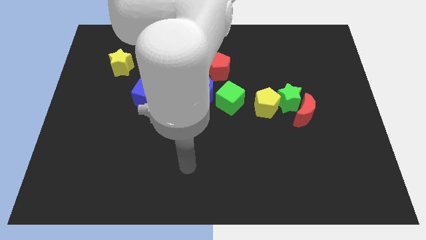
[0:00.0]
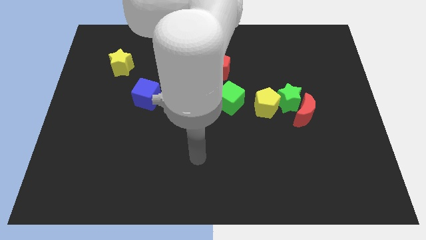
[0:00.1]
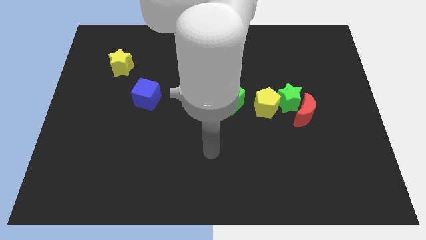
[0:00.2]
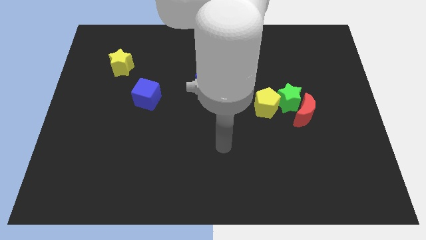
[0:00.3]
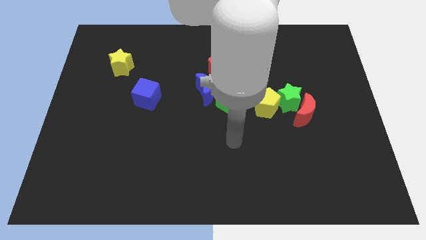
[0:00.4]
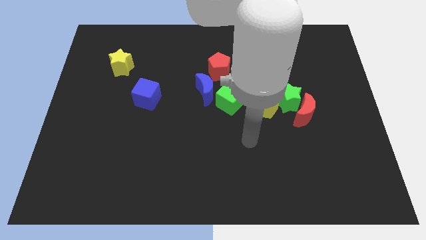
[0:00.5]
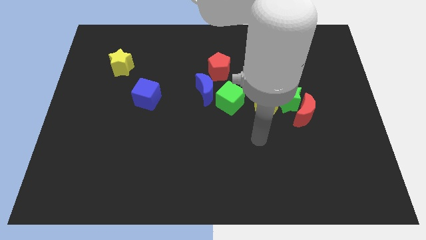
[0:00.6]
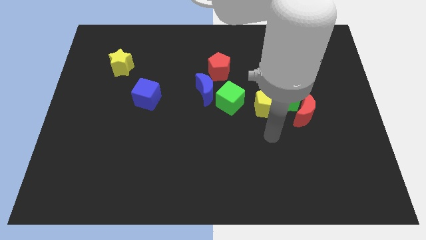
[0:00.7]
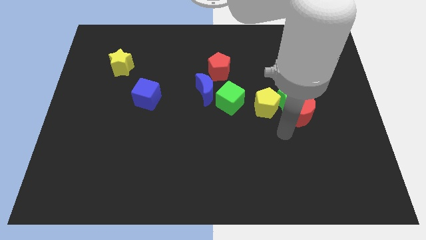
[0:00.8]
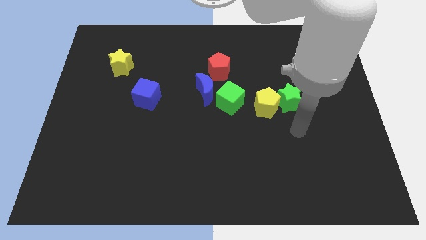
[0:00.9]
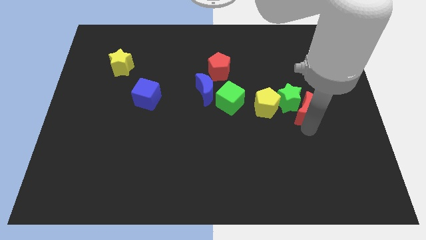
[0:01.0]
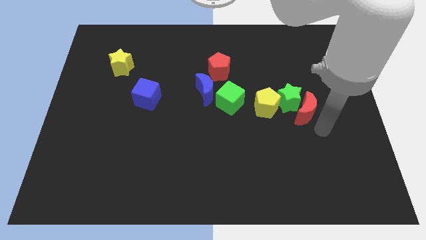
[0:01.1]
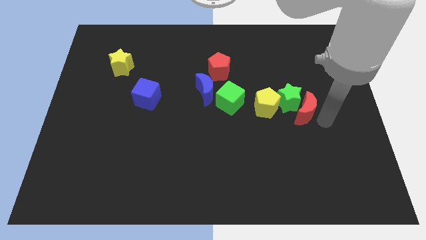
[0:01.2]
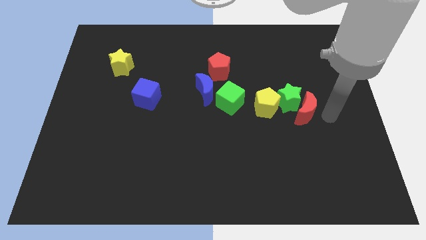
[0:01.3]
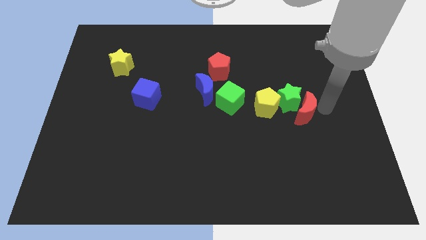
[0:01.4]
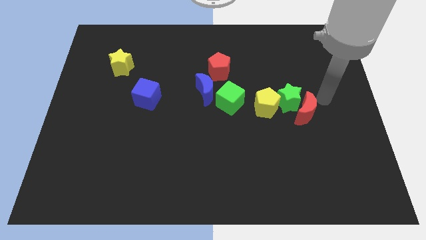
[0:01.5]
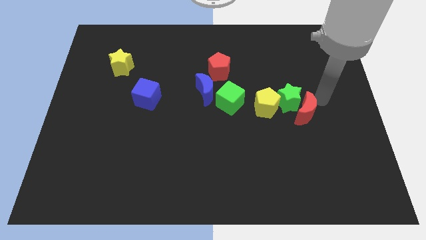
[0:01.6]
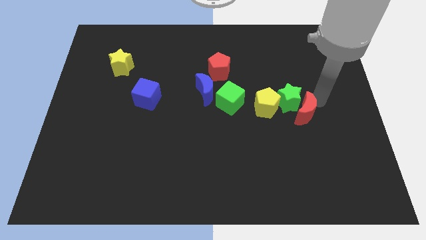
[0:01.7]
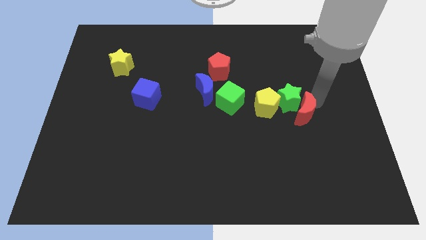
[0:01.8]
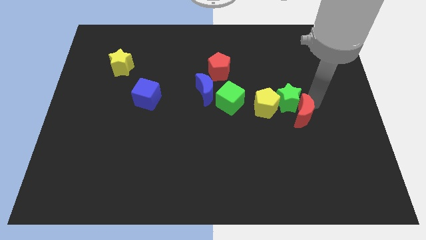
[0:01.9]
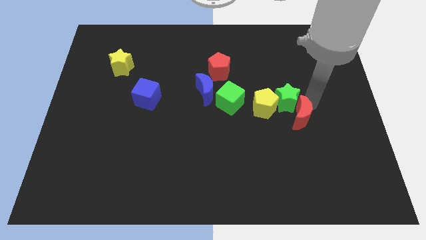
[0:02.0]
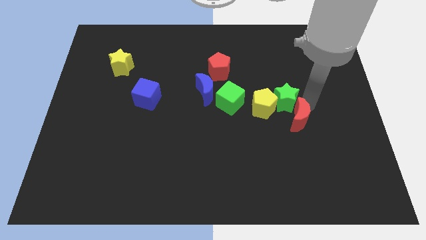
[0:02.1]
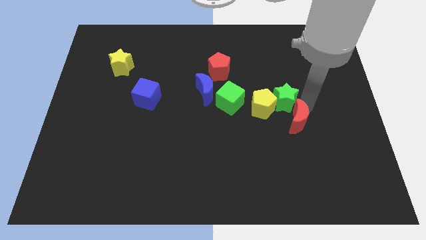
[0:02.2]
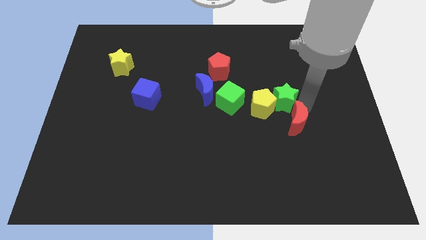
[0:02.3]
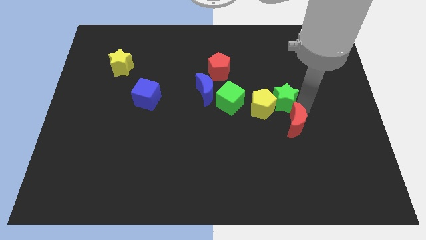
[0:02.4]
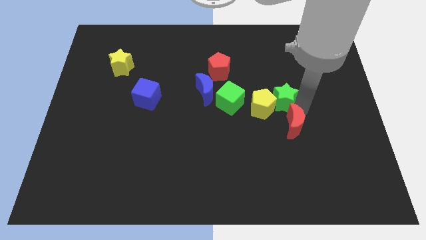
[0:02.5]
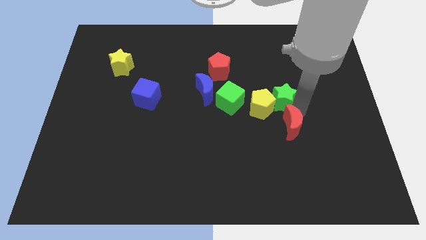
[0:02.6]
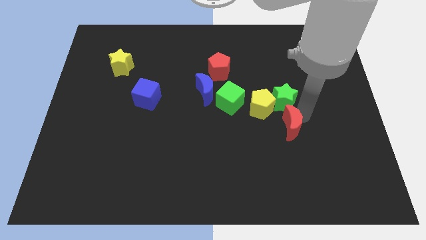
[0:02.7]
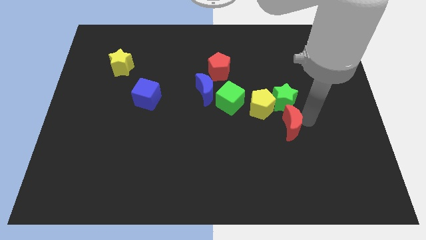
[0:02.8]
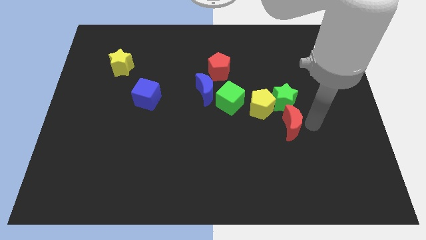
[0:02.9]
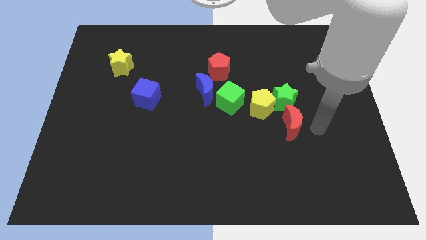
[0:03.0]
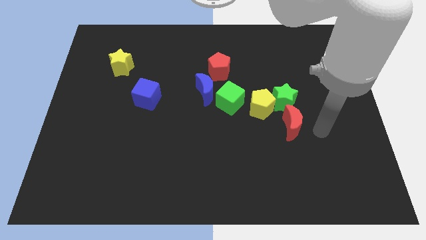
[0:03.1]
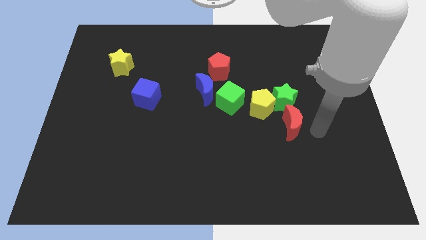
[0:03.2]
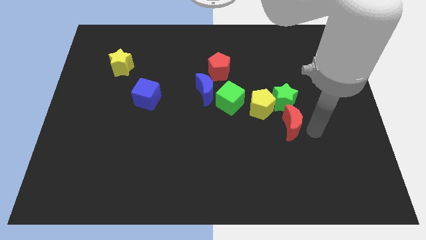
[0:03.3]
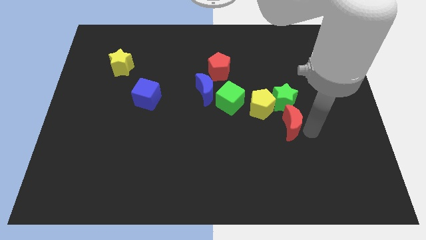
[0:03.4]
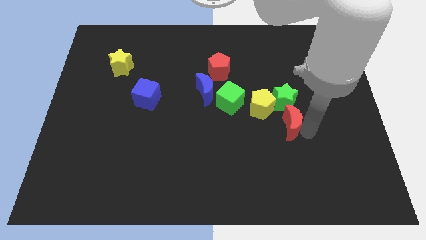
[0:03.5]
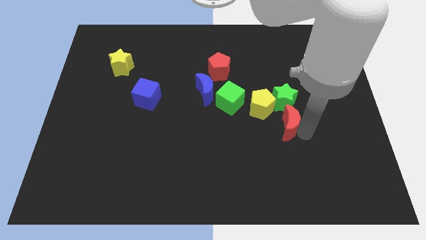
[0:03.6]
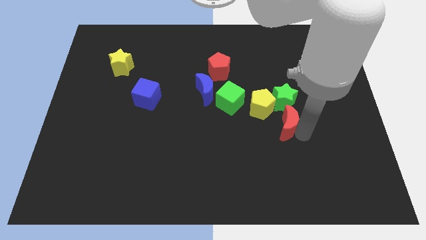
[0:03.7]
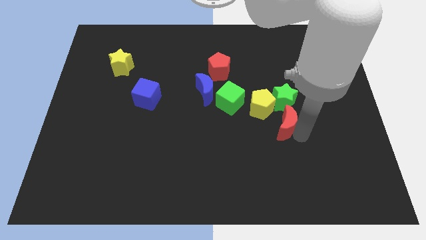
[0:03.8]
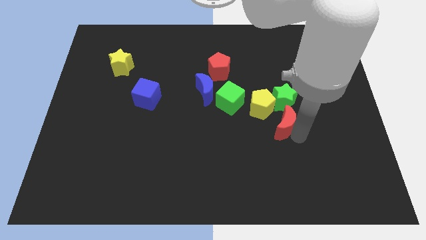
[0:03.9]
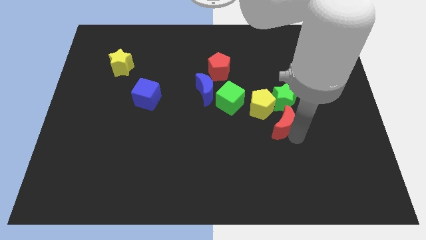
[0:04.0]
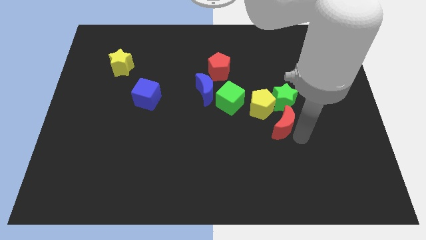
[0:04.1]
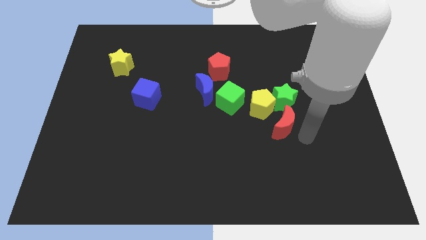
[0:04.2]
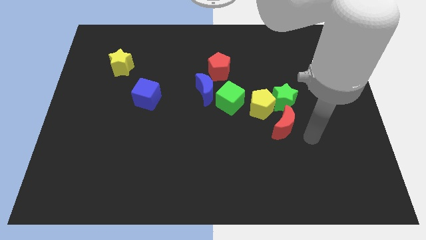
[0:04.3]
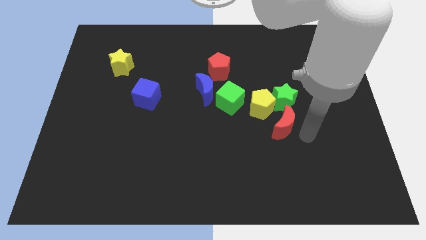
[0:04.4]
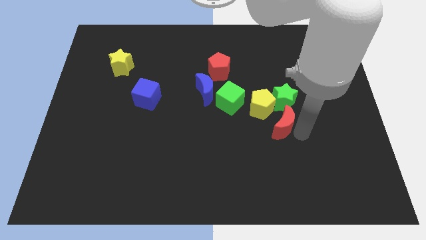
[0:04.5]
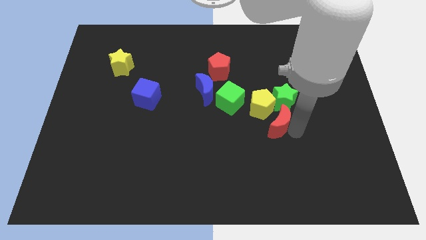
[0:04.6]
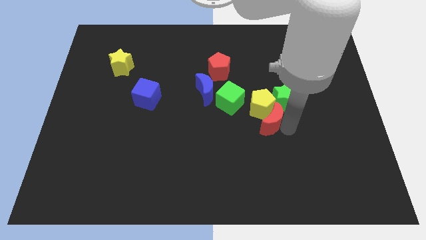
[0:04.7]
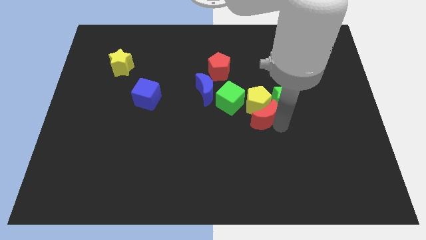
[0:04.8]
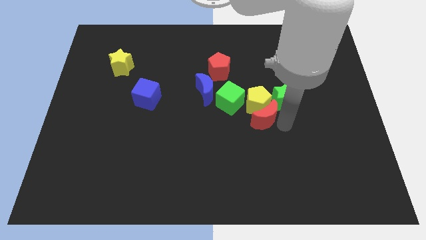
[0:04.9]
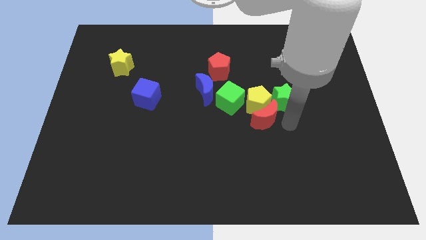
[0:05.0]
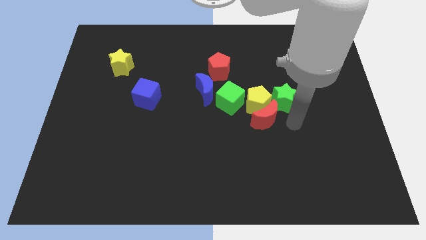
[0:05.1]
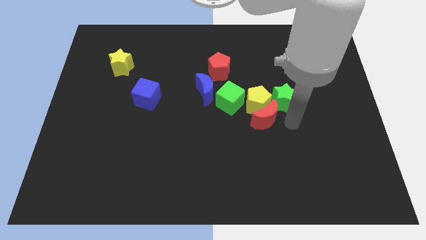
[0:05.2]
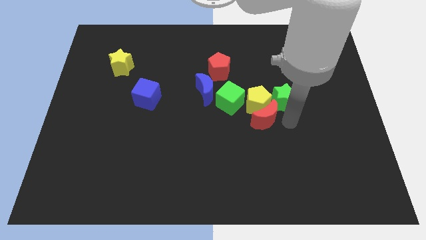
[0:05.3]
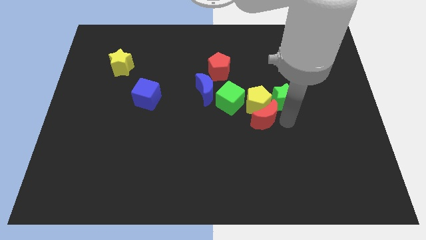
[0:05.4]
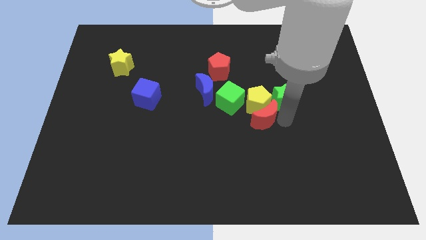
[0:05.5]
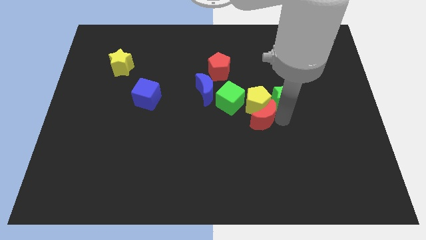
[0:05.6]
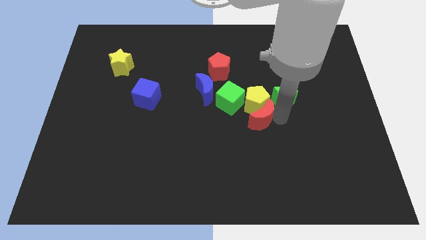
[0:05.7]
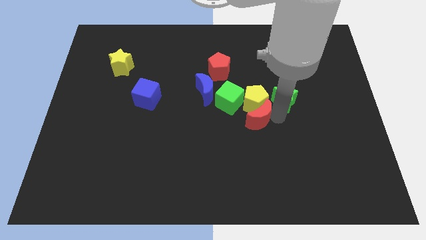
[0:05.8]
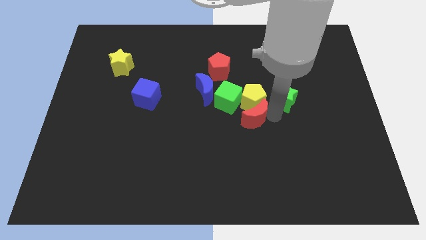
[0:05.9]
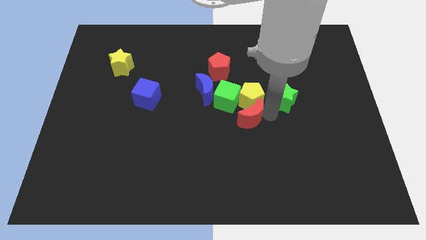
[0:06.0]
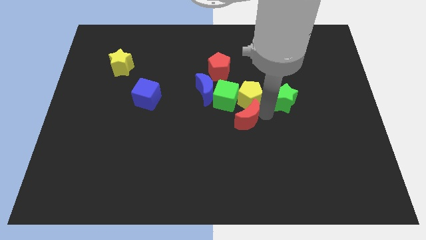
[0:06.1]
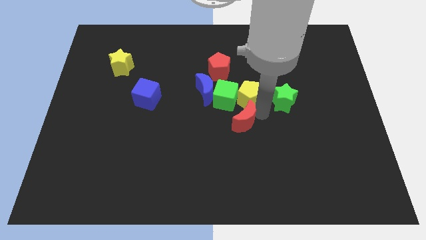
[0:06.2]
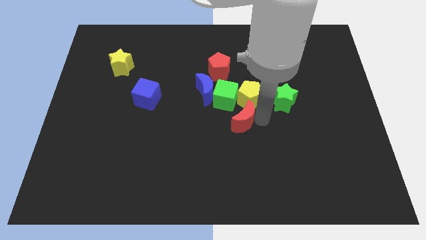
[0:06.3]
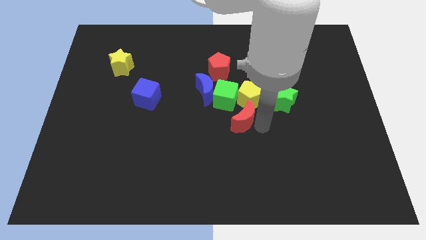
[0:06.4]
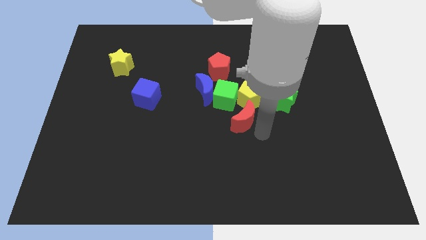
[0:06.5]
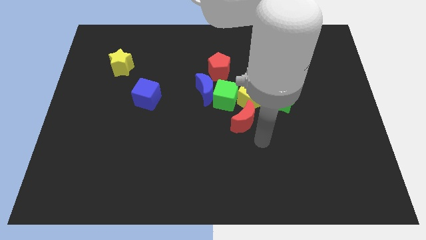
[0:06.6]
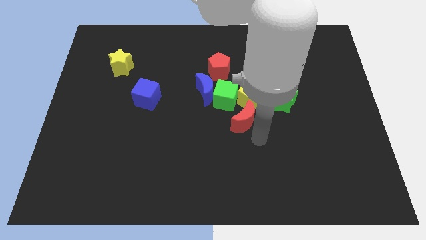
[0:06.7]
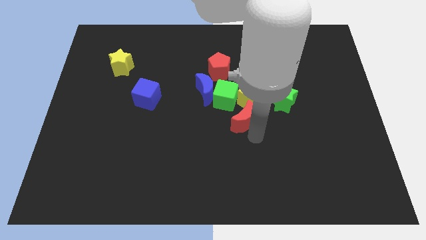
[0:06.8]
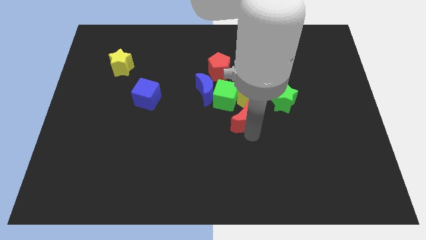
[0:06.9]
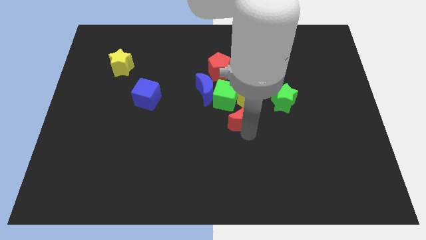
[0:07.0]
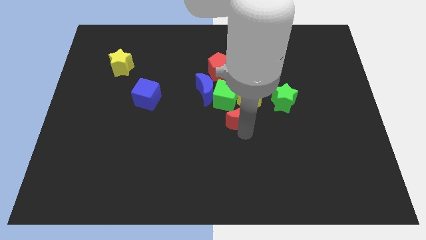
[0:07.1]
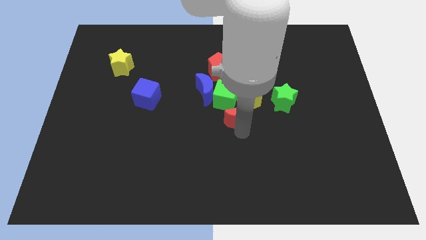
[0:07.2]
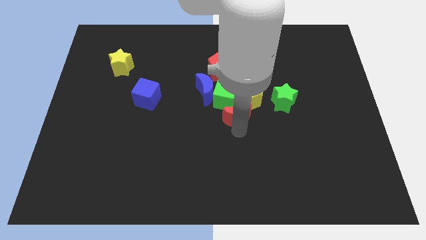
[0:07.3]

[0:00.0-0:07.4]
put the red moon towards the green cube
